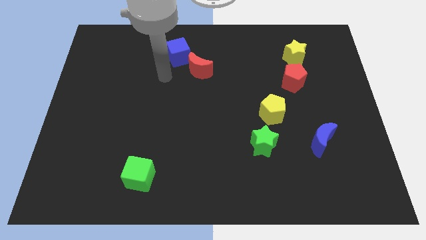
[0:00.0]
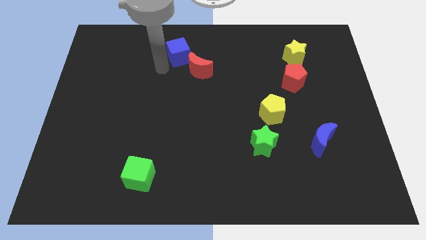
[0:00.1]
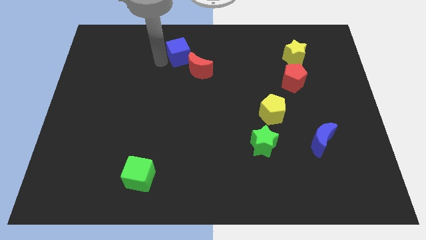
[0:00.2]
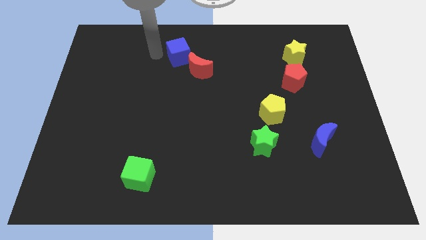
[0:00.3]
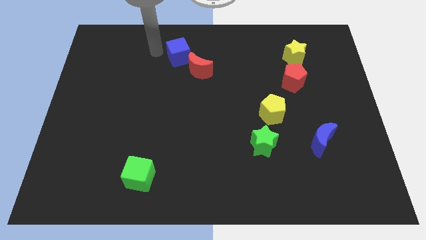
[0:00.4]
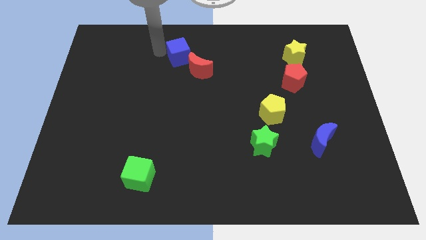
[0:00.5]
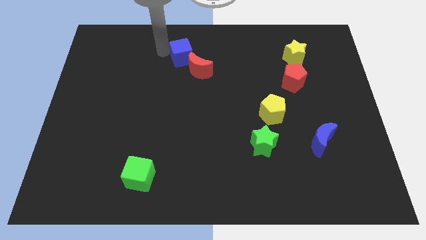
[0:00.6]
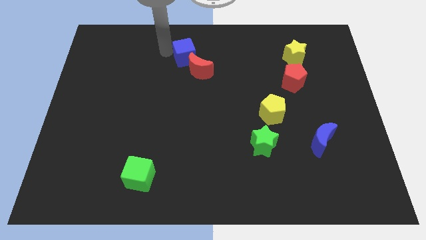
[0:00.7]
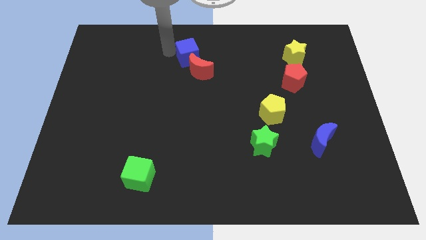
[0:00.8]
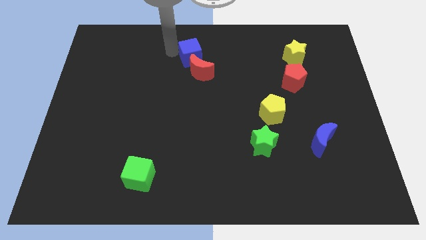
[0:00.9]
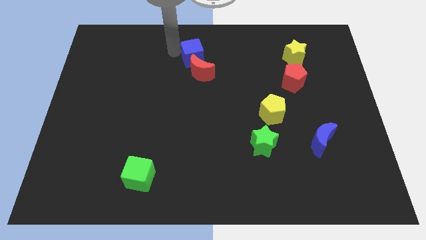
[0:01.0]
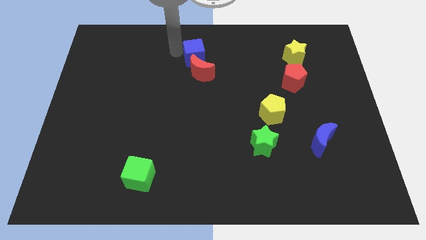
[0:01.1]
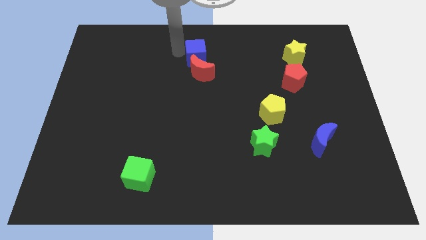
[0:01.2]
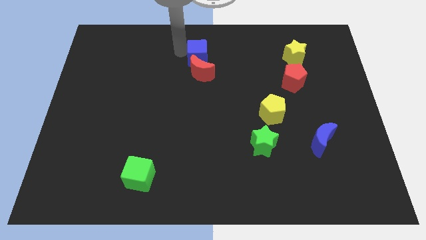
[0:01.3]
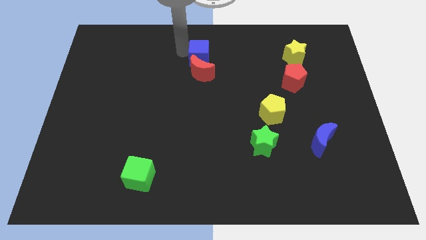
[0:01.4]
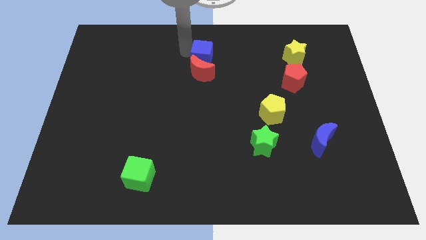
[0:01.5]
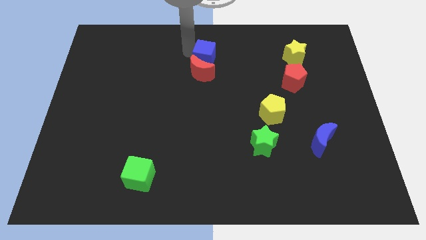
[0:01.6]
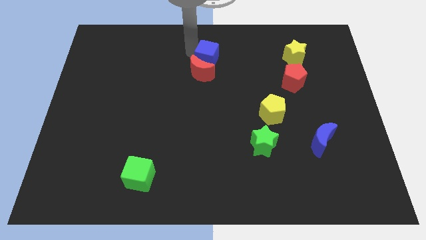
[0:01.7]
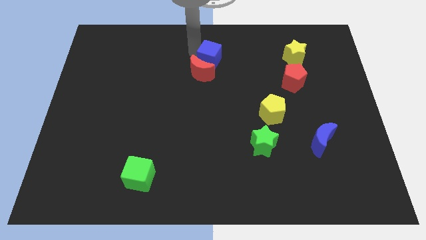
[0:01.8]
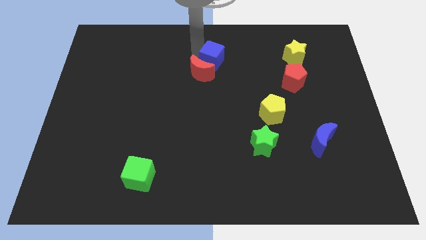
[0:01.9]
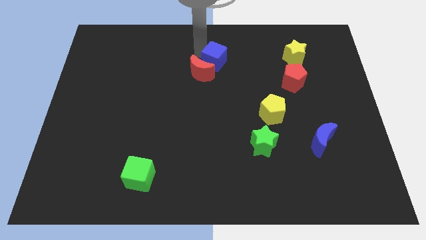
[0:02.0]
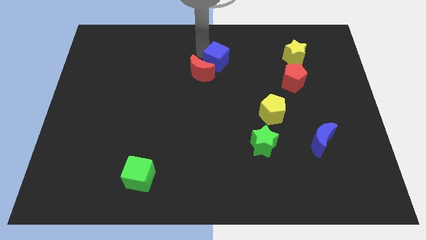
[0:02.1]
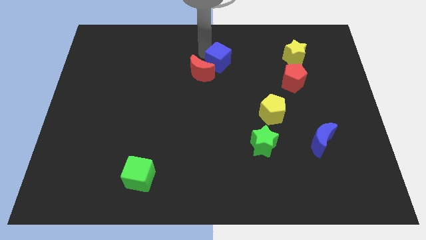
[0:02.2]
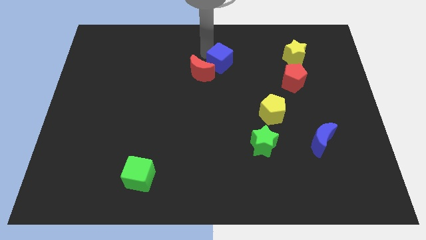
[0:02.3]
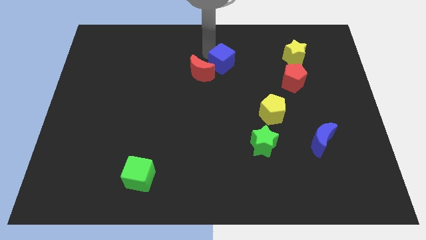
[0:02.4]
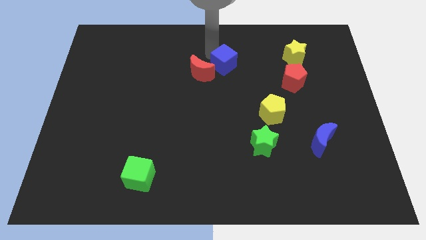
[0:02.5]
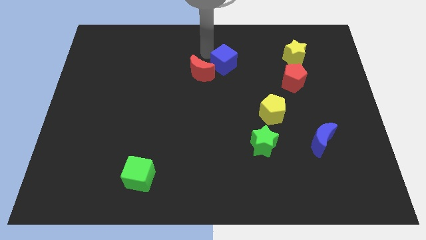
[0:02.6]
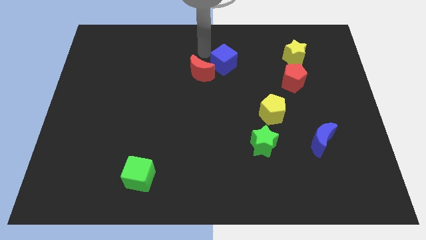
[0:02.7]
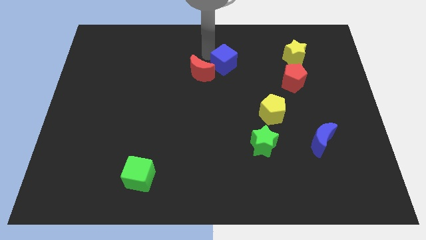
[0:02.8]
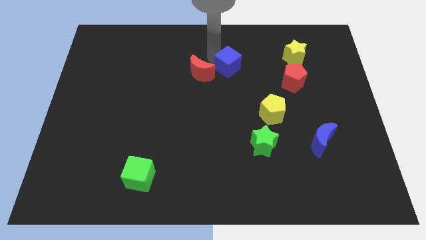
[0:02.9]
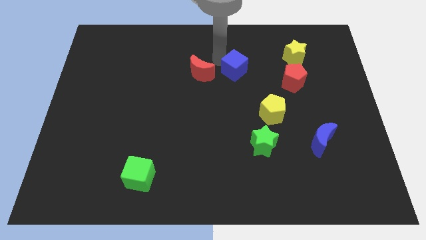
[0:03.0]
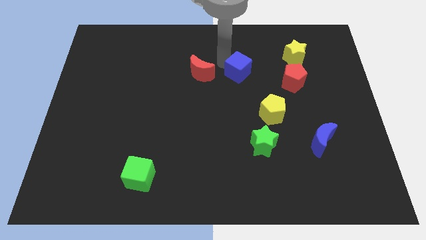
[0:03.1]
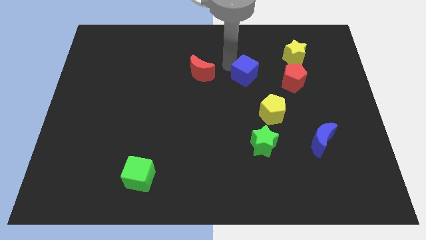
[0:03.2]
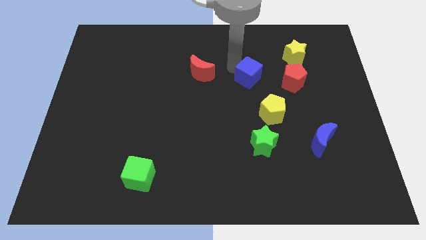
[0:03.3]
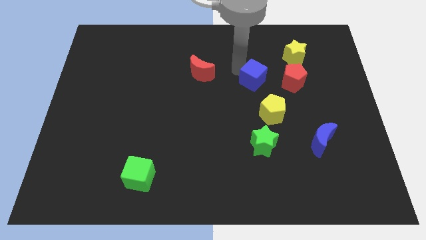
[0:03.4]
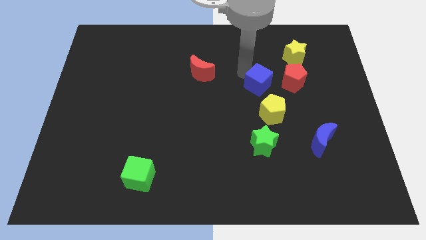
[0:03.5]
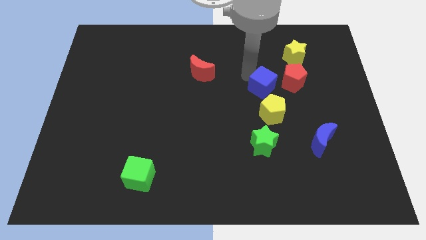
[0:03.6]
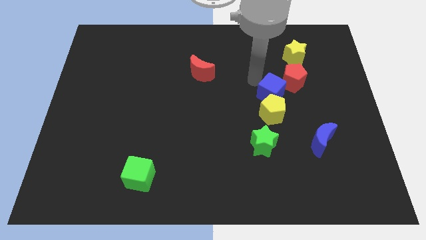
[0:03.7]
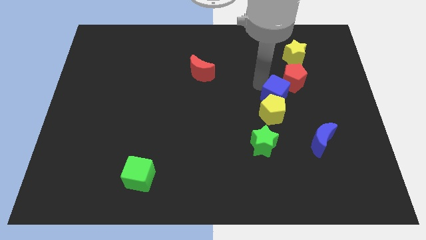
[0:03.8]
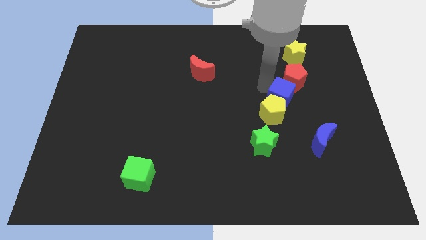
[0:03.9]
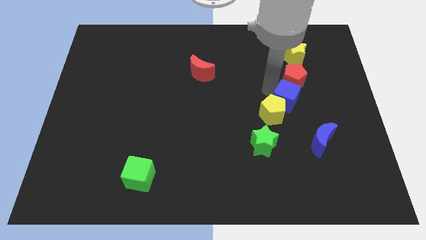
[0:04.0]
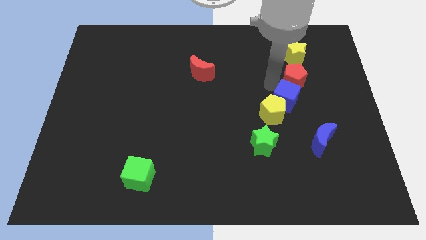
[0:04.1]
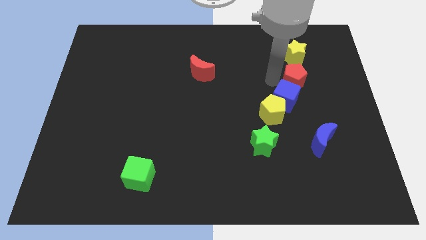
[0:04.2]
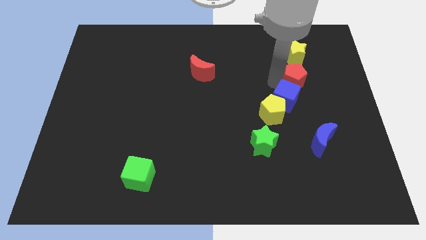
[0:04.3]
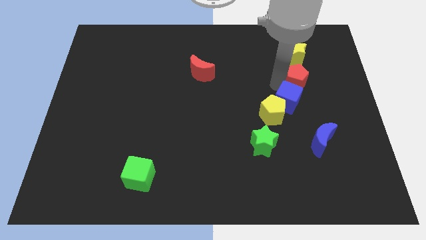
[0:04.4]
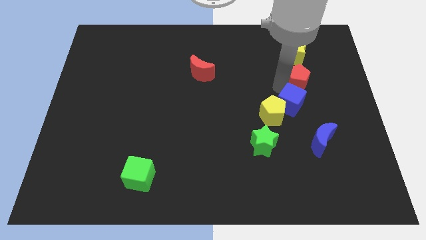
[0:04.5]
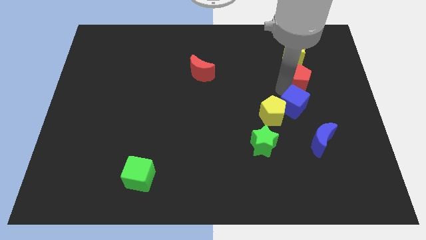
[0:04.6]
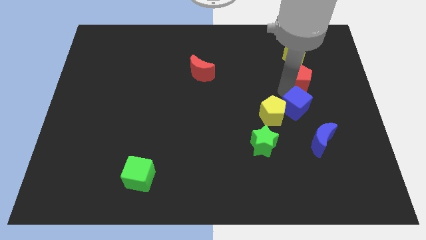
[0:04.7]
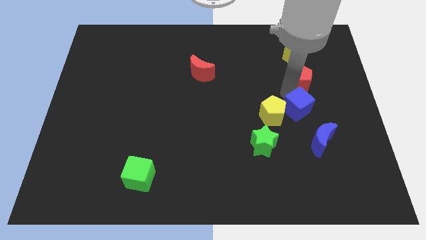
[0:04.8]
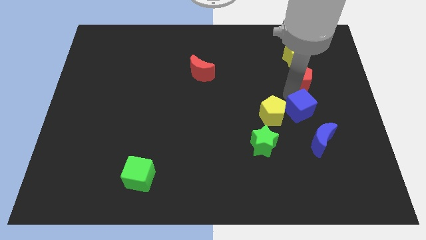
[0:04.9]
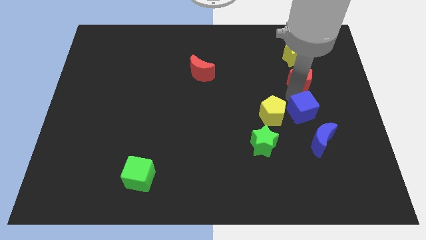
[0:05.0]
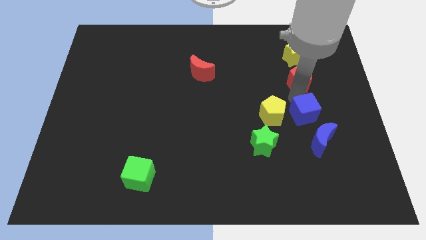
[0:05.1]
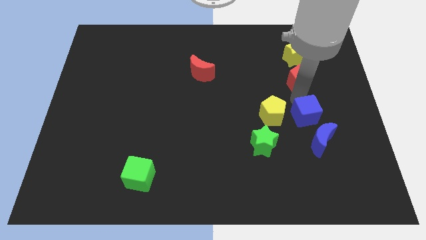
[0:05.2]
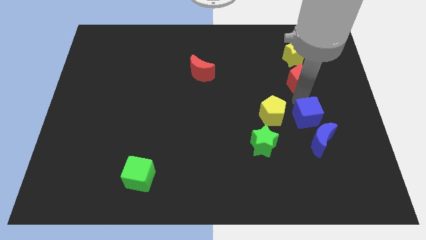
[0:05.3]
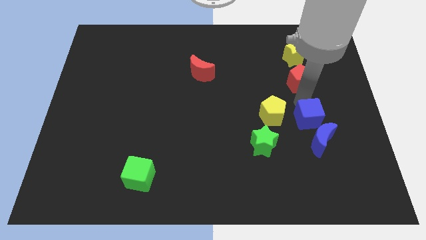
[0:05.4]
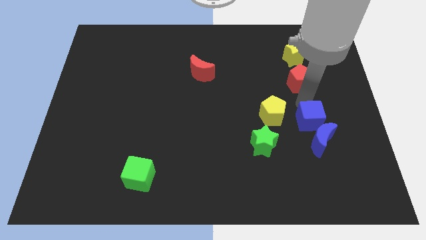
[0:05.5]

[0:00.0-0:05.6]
push the blue cube to the blue moon

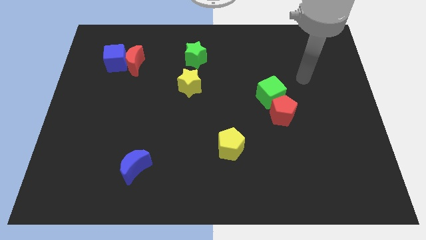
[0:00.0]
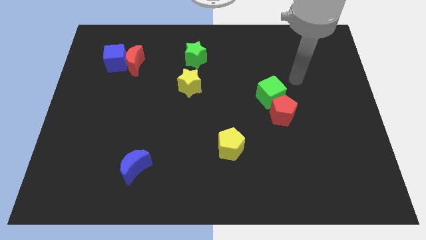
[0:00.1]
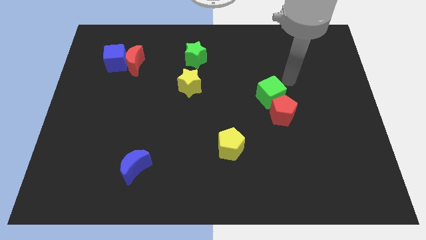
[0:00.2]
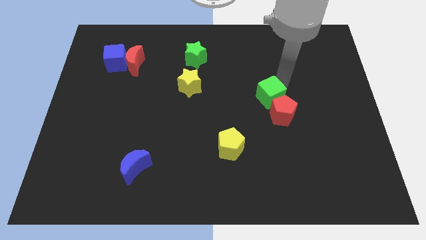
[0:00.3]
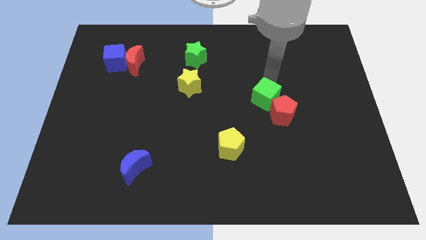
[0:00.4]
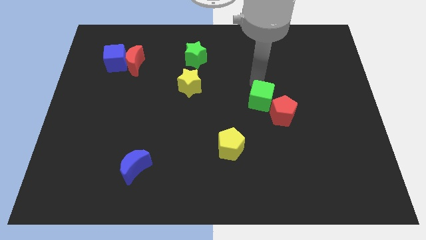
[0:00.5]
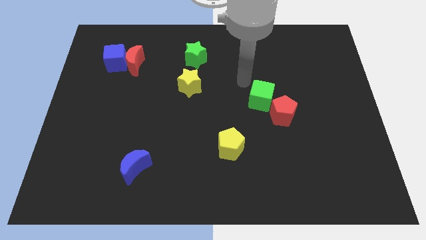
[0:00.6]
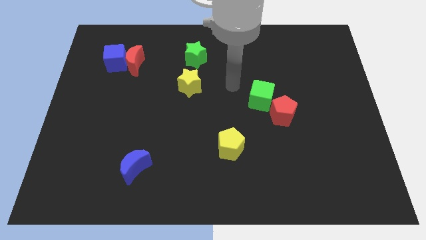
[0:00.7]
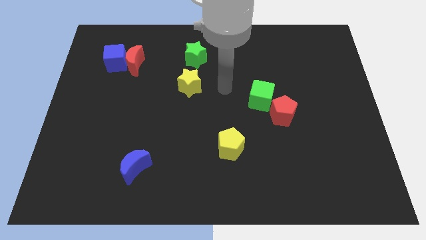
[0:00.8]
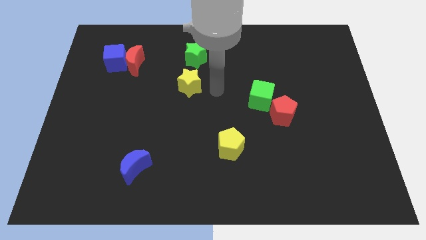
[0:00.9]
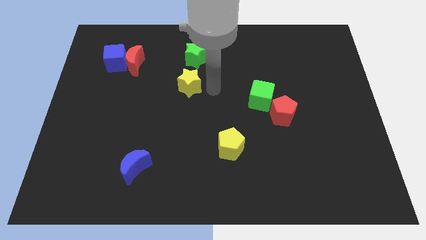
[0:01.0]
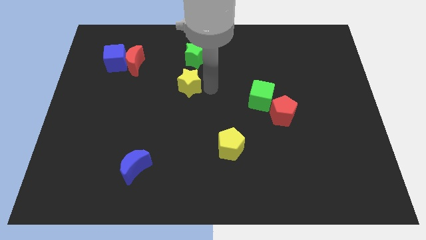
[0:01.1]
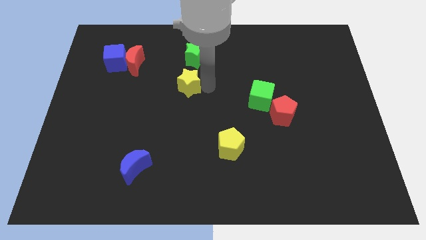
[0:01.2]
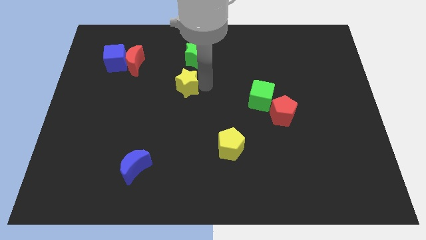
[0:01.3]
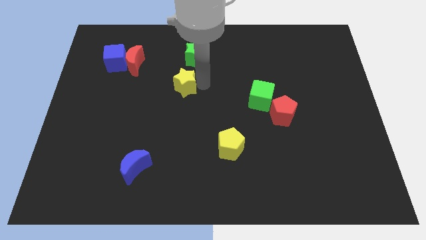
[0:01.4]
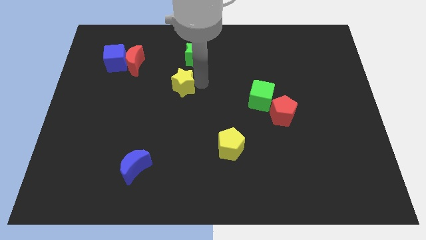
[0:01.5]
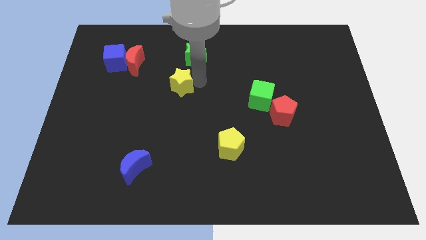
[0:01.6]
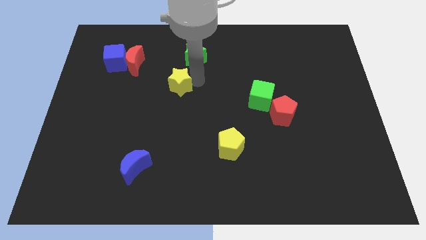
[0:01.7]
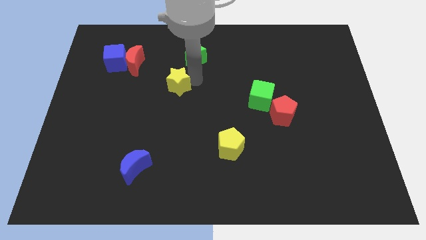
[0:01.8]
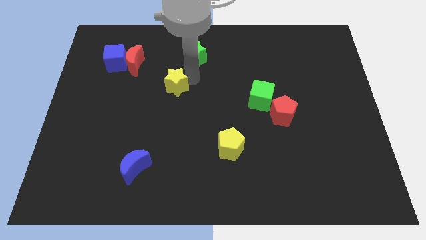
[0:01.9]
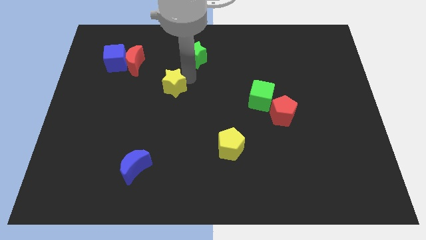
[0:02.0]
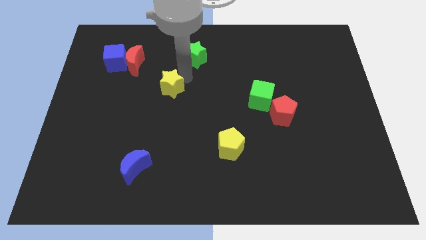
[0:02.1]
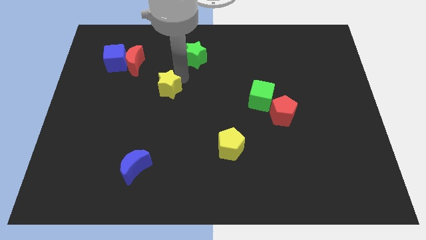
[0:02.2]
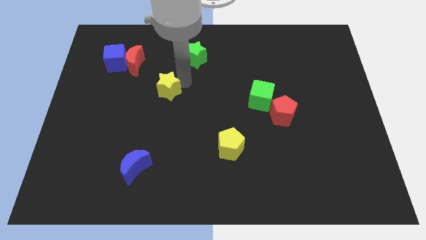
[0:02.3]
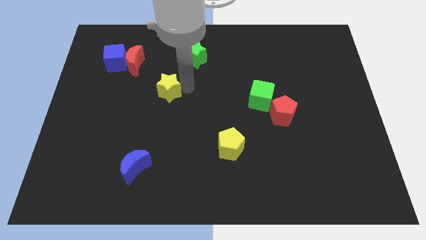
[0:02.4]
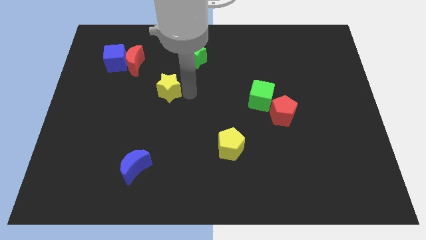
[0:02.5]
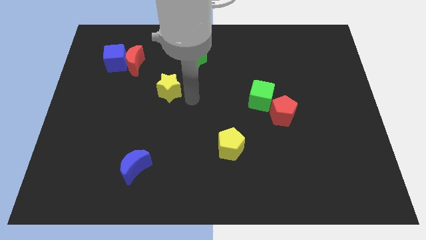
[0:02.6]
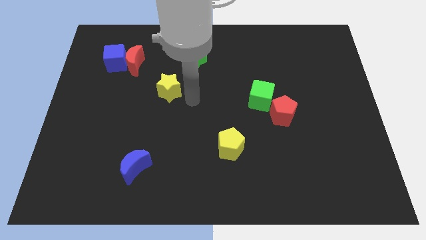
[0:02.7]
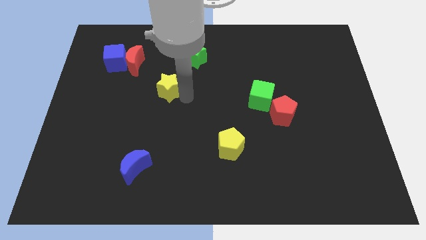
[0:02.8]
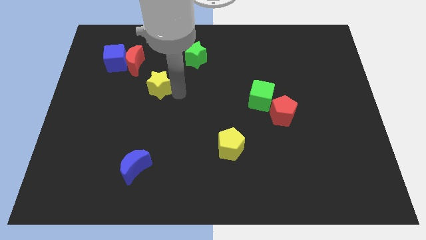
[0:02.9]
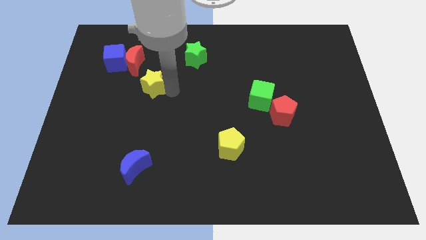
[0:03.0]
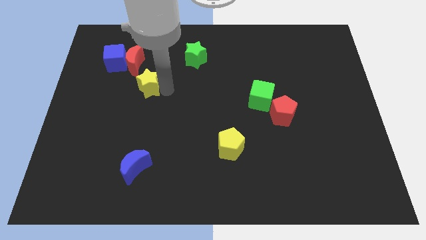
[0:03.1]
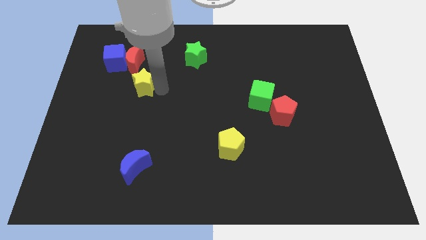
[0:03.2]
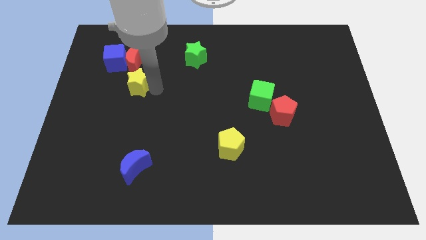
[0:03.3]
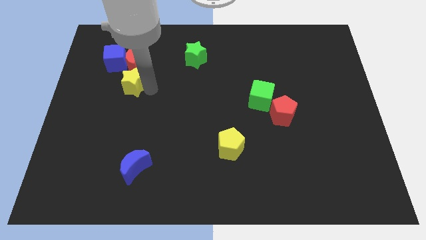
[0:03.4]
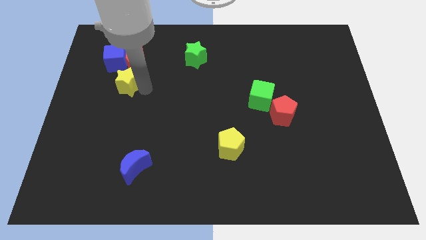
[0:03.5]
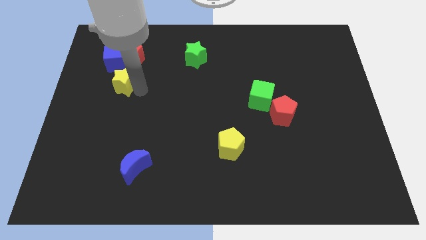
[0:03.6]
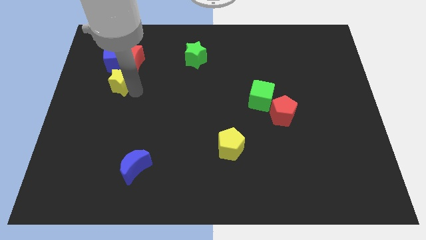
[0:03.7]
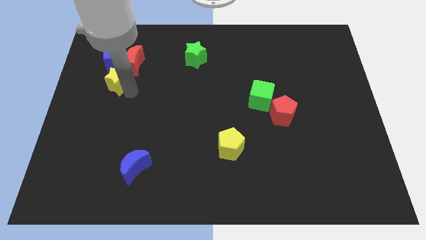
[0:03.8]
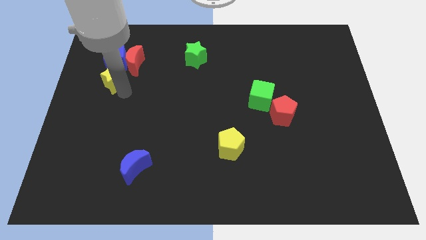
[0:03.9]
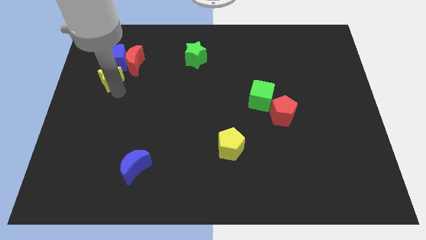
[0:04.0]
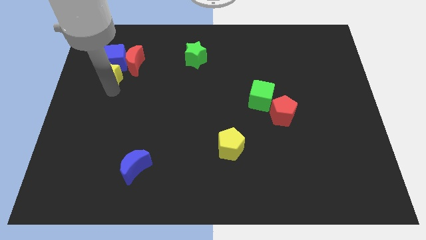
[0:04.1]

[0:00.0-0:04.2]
slide the yellow star to the blue cube
